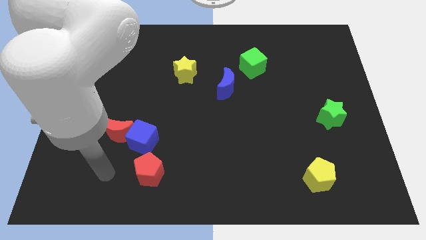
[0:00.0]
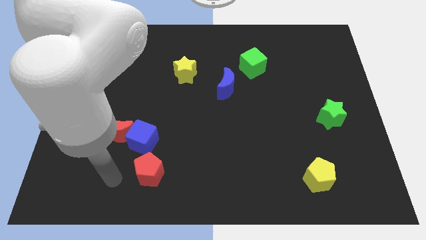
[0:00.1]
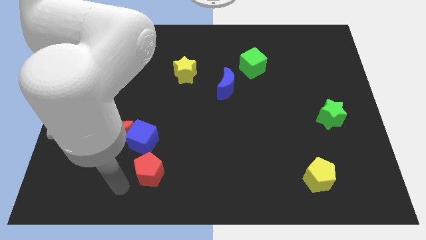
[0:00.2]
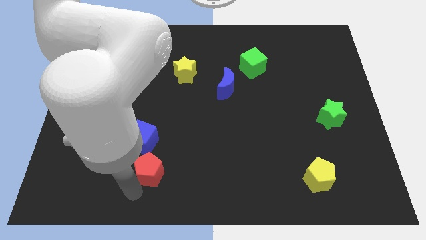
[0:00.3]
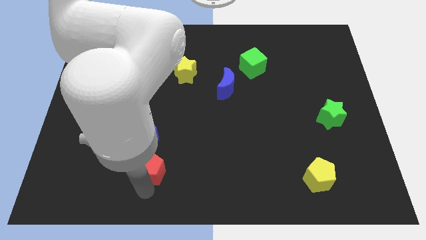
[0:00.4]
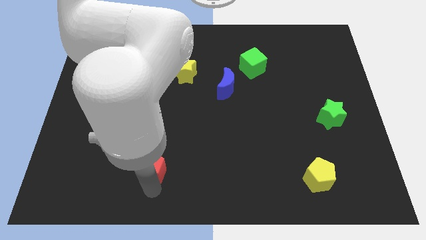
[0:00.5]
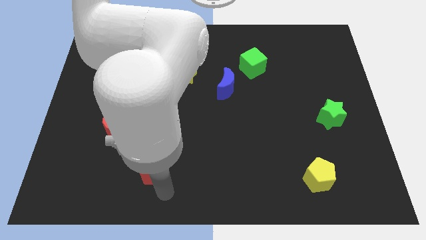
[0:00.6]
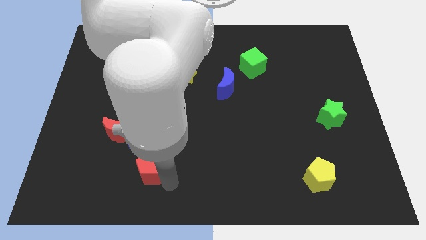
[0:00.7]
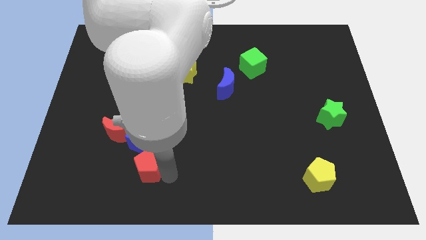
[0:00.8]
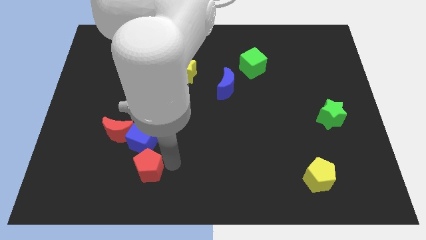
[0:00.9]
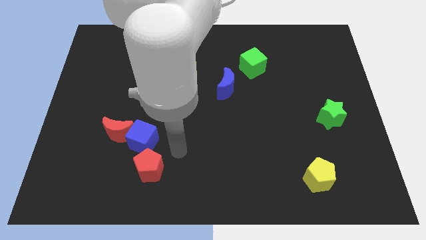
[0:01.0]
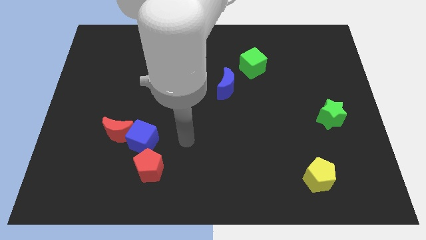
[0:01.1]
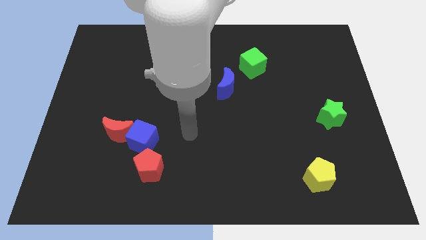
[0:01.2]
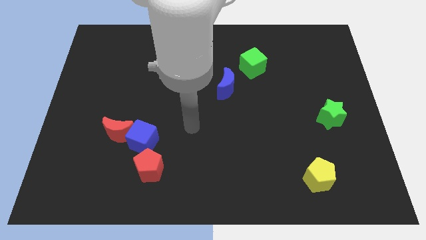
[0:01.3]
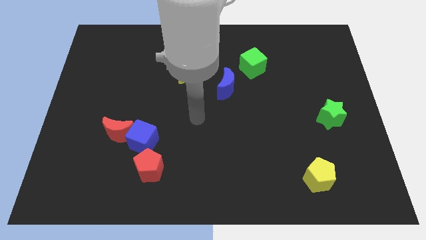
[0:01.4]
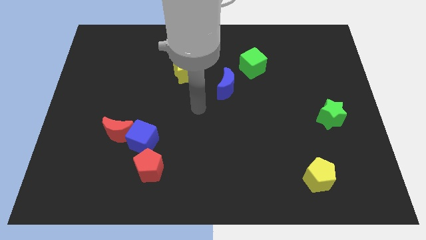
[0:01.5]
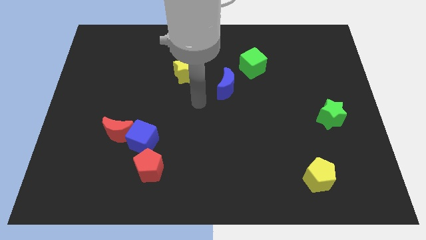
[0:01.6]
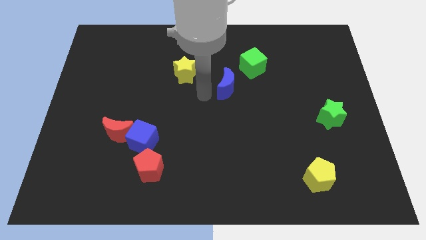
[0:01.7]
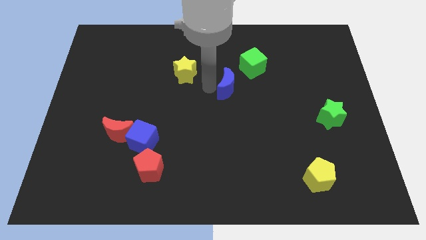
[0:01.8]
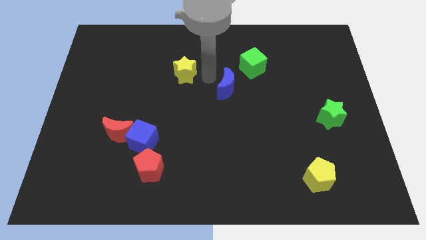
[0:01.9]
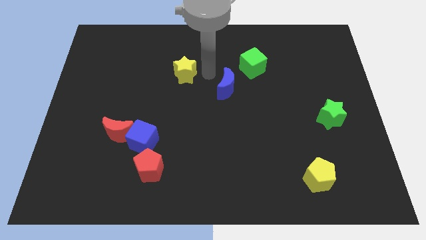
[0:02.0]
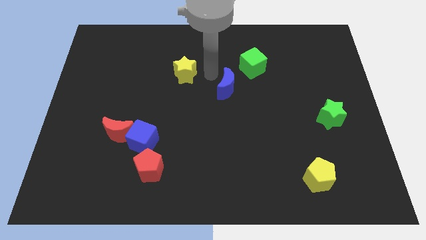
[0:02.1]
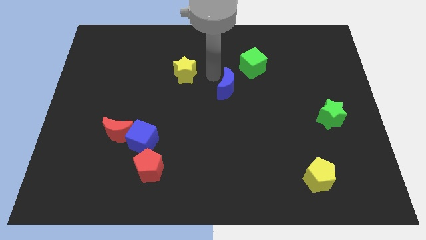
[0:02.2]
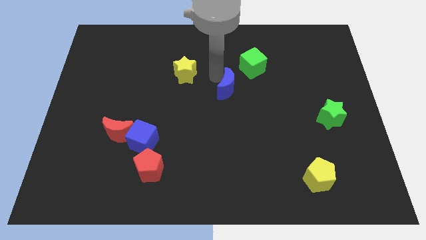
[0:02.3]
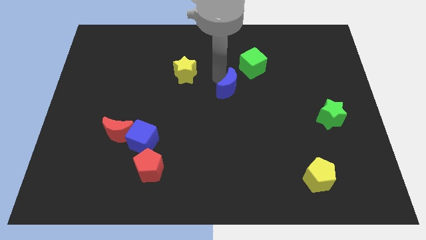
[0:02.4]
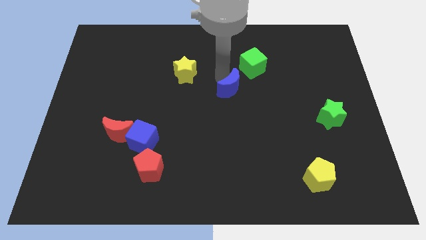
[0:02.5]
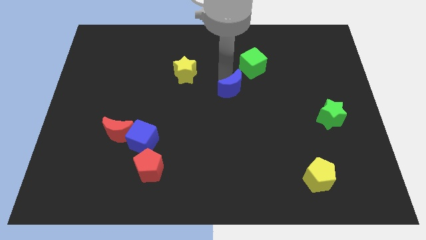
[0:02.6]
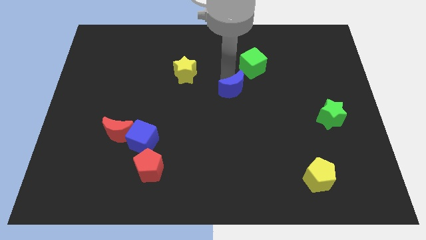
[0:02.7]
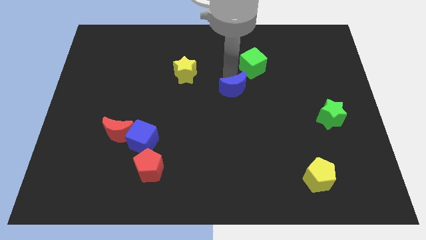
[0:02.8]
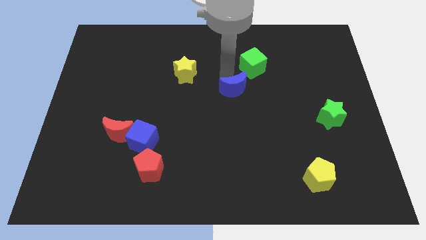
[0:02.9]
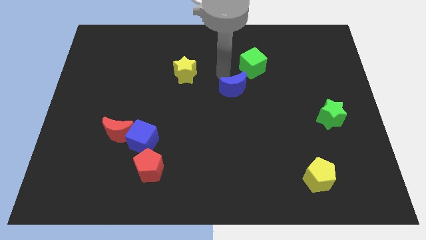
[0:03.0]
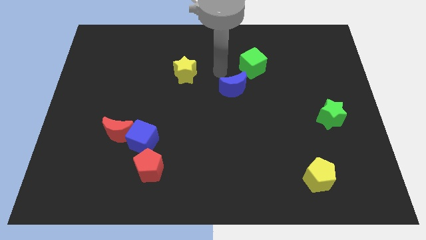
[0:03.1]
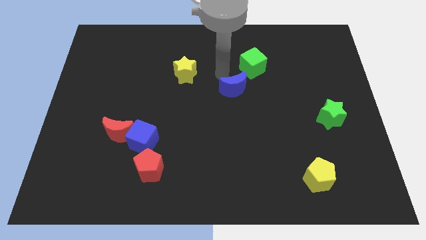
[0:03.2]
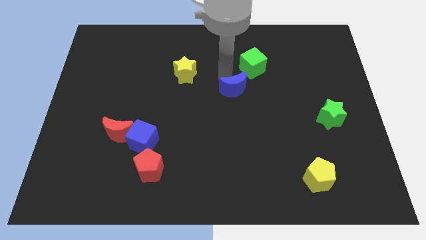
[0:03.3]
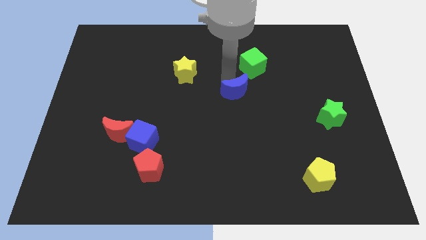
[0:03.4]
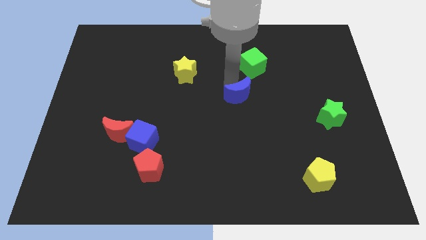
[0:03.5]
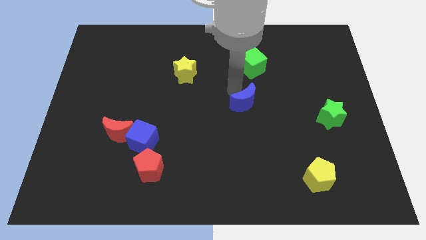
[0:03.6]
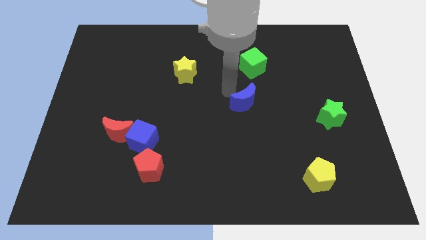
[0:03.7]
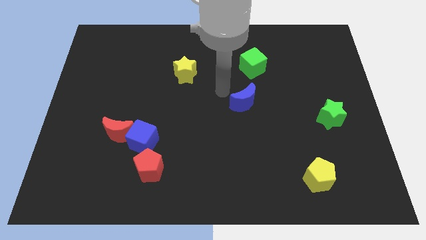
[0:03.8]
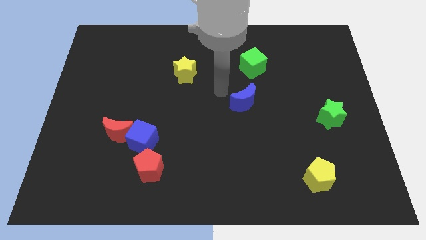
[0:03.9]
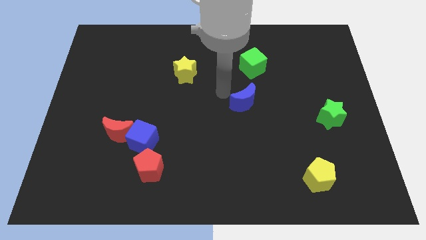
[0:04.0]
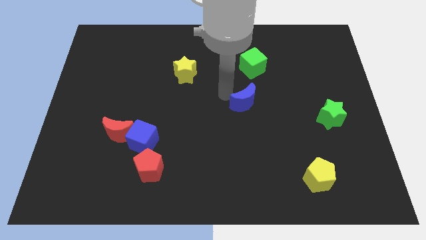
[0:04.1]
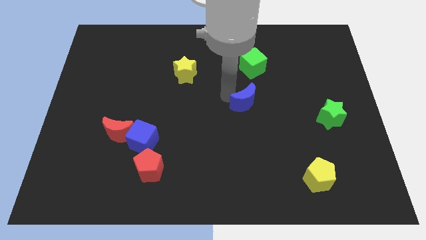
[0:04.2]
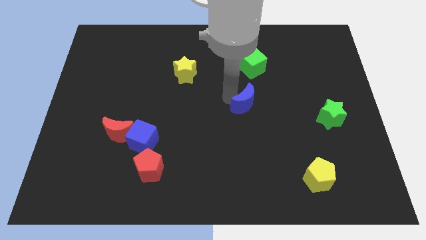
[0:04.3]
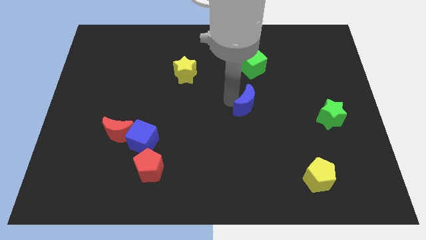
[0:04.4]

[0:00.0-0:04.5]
move the blue moon a little down and then to the right

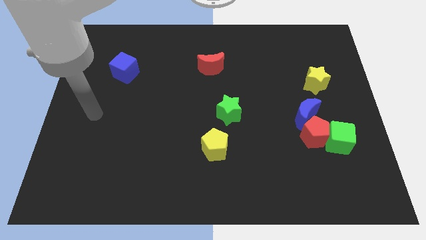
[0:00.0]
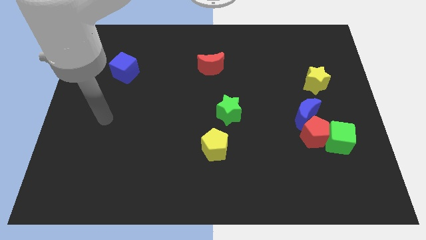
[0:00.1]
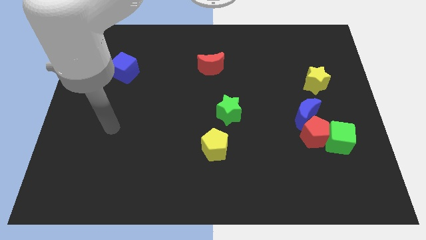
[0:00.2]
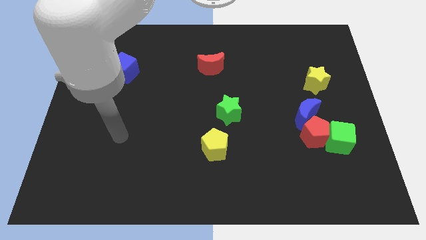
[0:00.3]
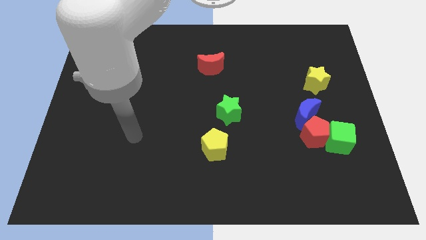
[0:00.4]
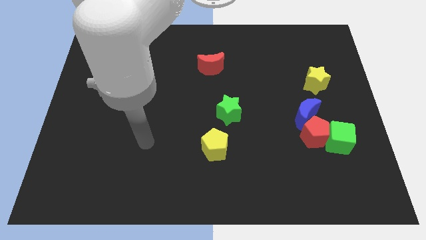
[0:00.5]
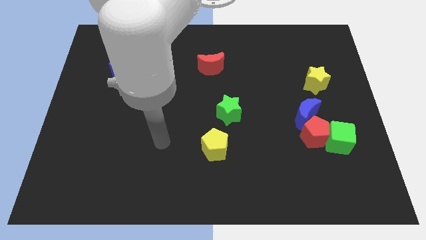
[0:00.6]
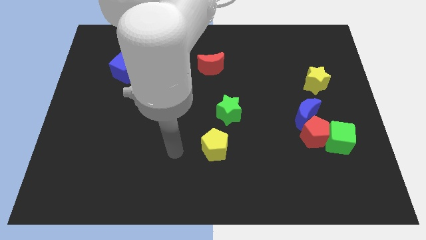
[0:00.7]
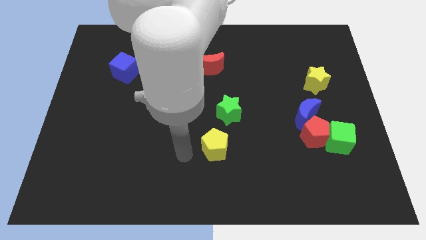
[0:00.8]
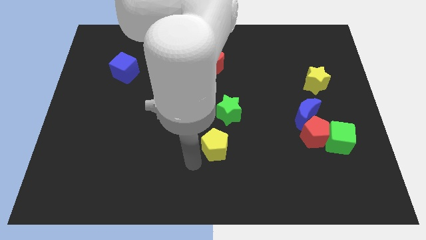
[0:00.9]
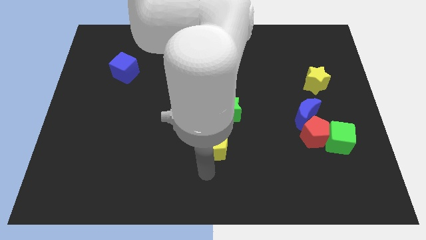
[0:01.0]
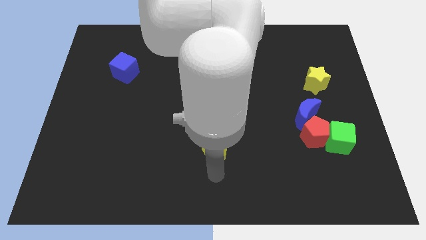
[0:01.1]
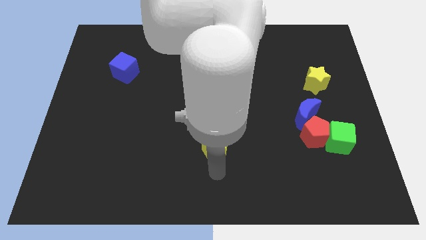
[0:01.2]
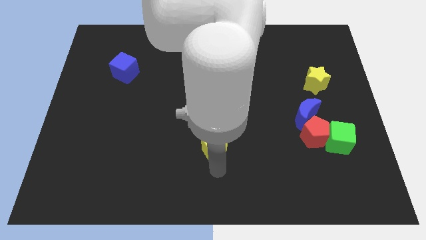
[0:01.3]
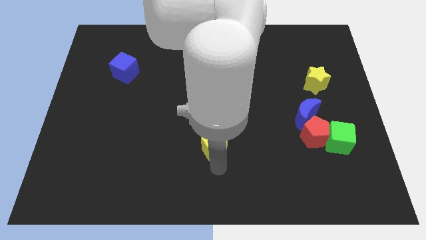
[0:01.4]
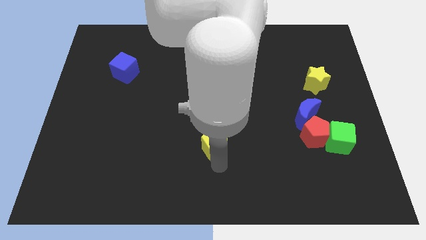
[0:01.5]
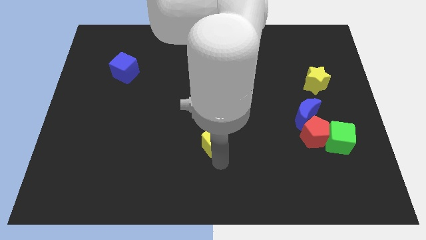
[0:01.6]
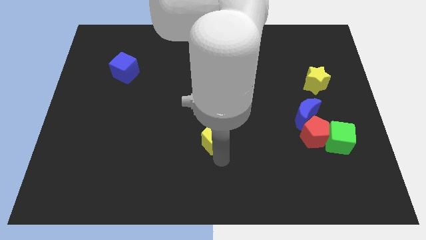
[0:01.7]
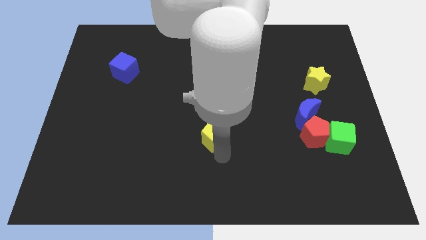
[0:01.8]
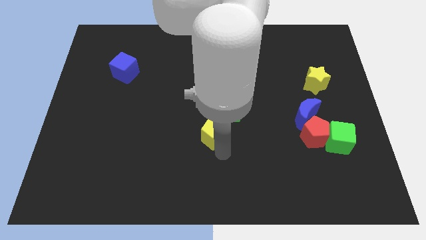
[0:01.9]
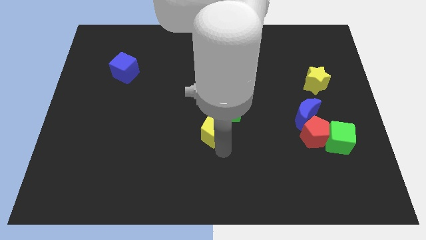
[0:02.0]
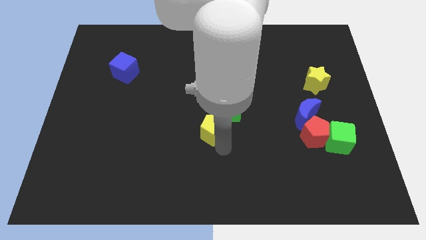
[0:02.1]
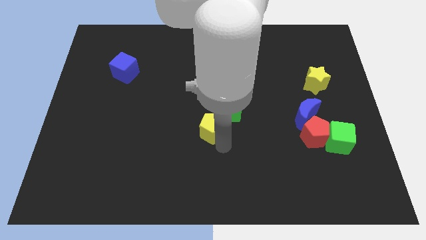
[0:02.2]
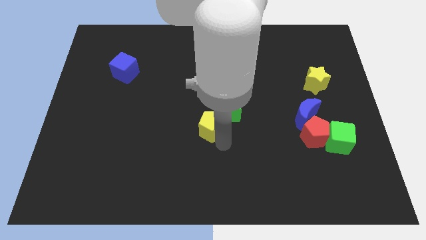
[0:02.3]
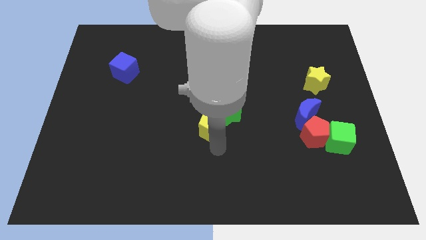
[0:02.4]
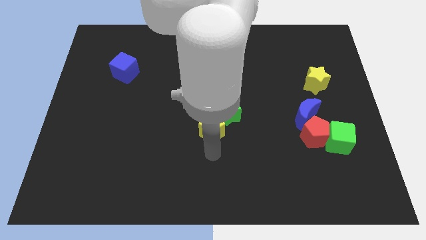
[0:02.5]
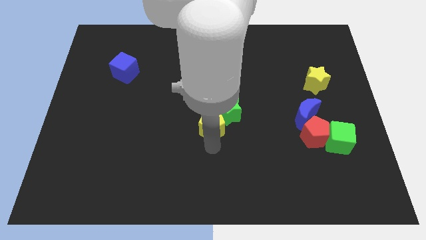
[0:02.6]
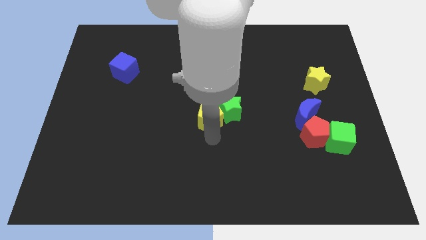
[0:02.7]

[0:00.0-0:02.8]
slide the yellow pentagon a little up

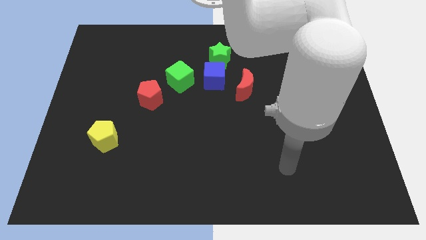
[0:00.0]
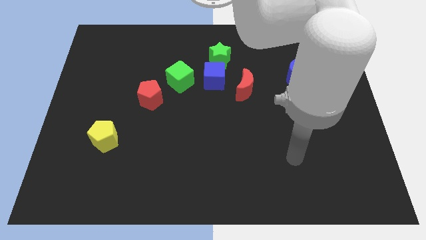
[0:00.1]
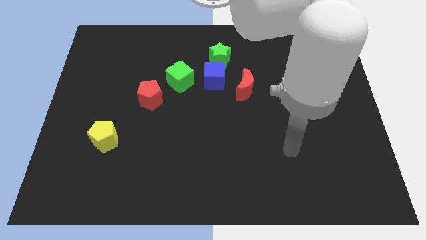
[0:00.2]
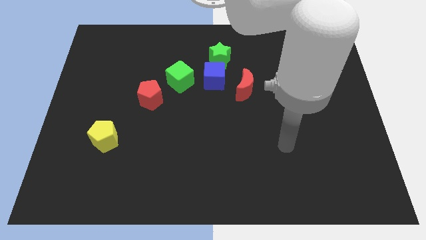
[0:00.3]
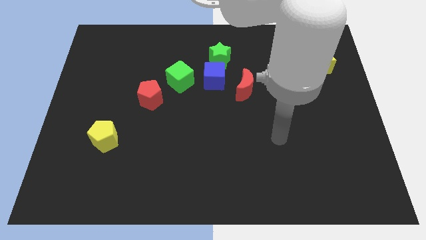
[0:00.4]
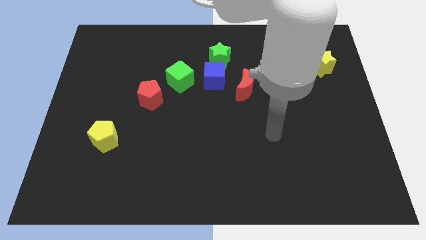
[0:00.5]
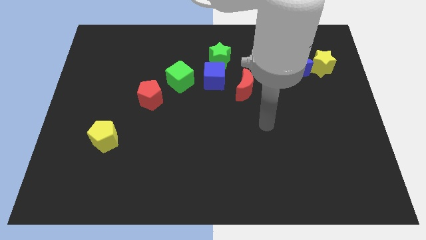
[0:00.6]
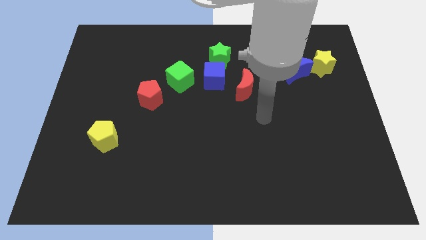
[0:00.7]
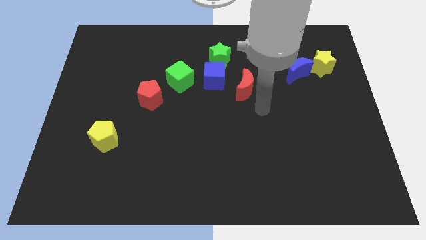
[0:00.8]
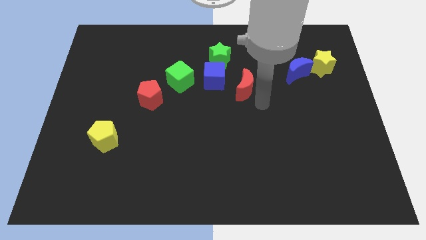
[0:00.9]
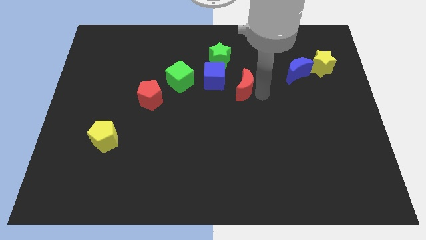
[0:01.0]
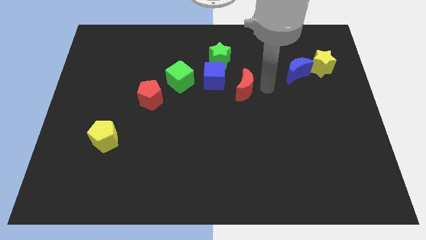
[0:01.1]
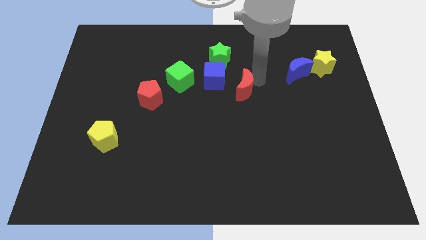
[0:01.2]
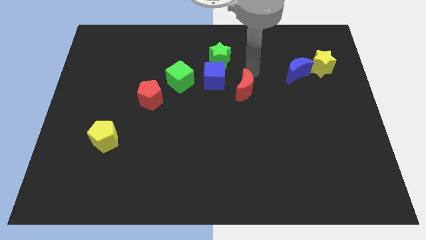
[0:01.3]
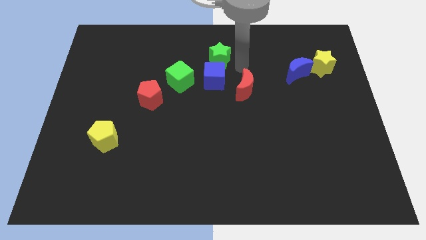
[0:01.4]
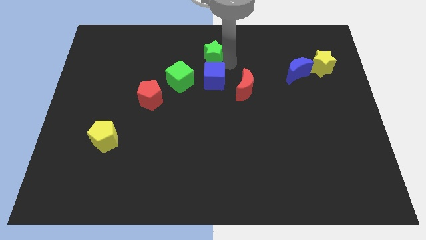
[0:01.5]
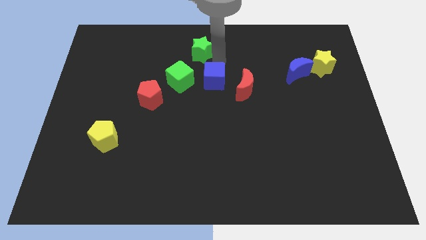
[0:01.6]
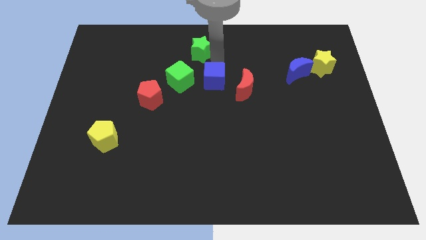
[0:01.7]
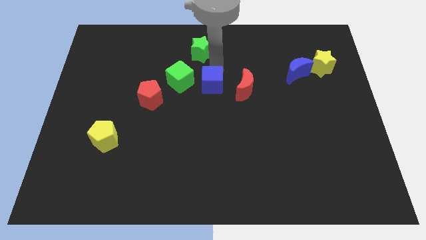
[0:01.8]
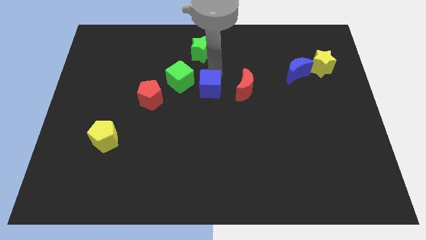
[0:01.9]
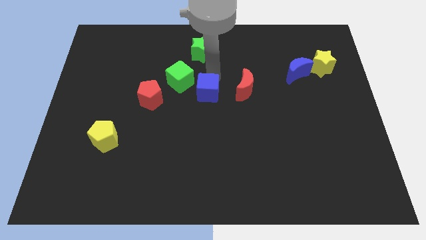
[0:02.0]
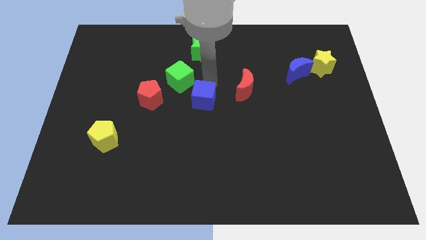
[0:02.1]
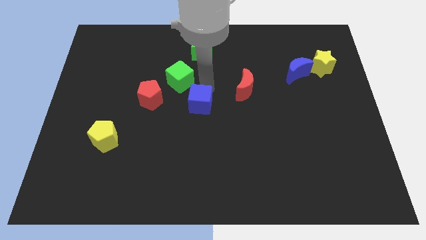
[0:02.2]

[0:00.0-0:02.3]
slide the blue cube a bit down
